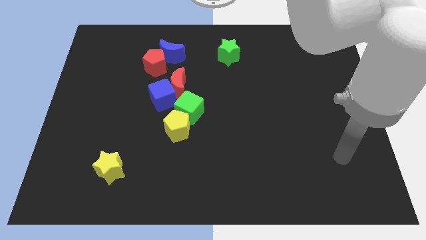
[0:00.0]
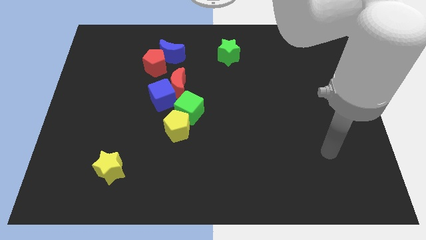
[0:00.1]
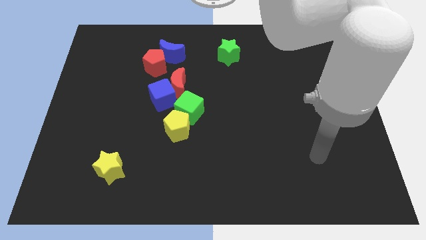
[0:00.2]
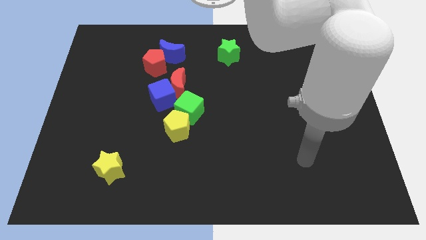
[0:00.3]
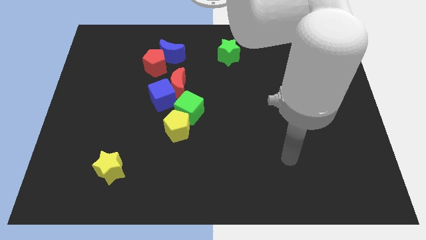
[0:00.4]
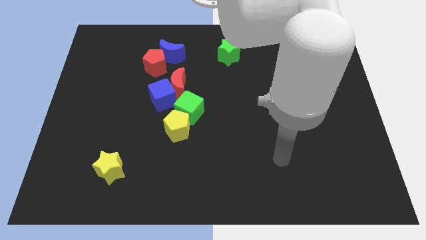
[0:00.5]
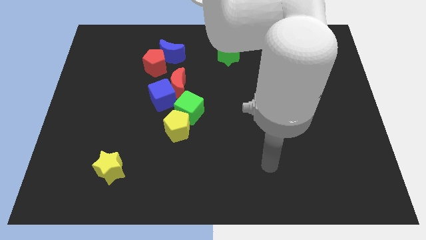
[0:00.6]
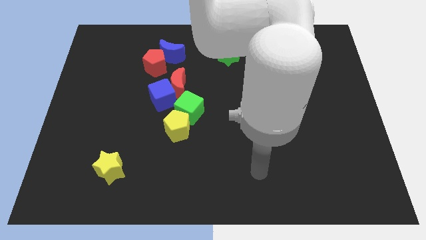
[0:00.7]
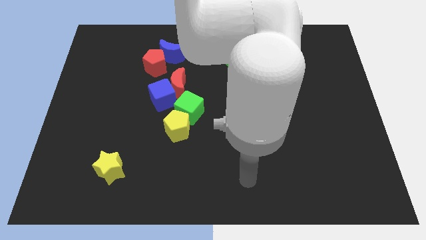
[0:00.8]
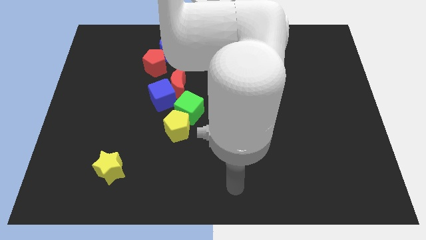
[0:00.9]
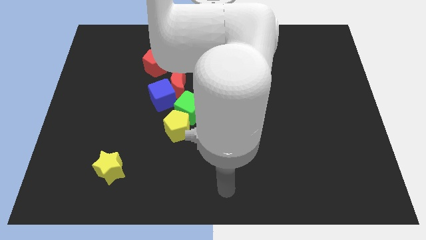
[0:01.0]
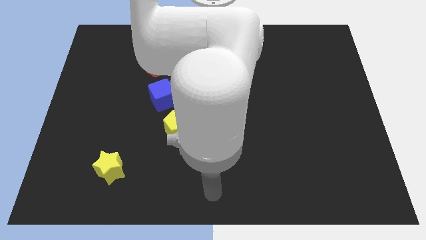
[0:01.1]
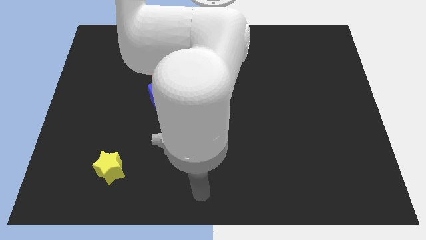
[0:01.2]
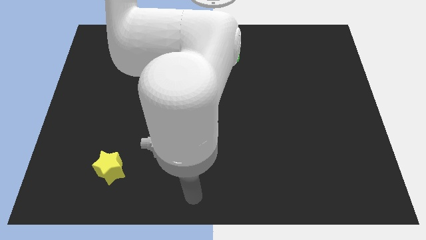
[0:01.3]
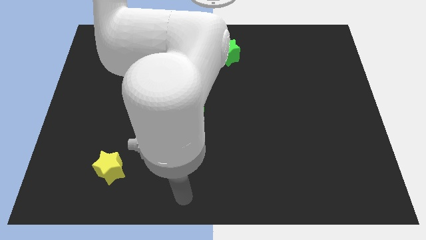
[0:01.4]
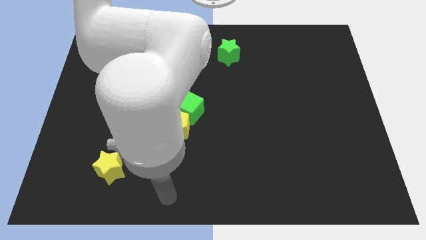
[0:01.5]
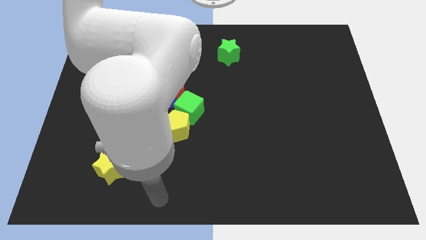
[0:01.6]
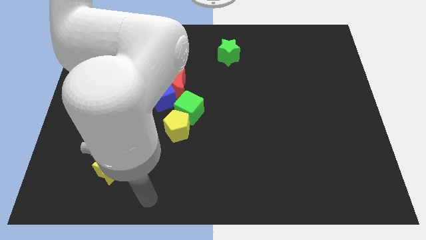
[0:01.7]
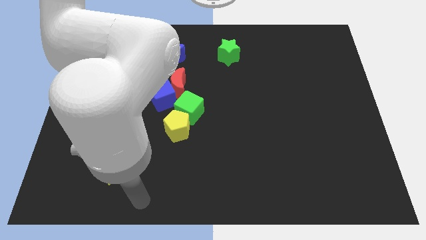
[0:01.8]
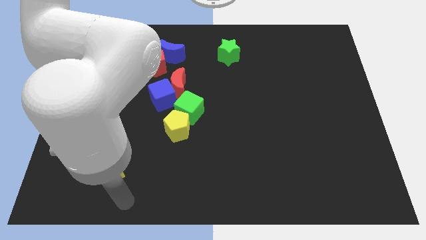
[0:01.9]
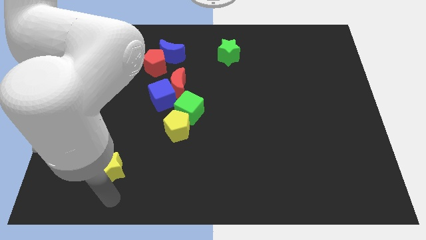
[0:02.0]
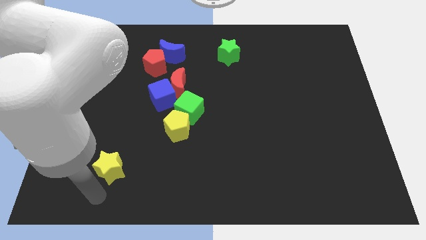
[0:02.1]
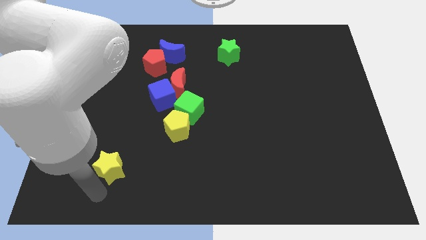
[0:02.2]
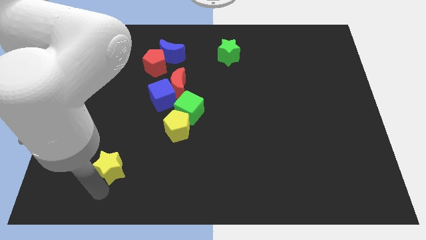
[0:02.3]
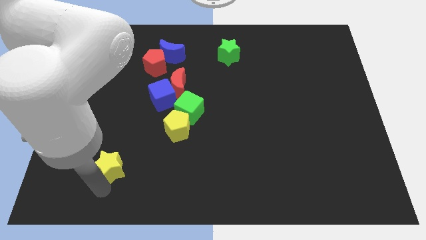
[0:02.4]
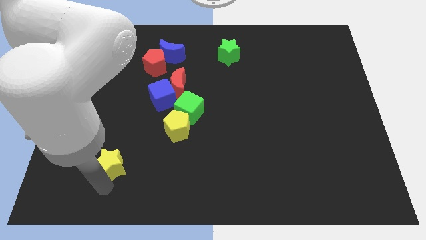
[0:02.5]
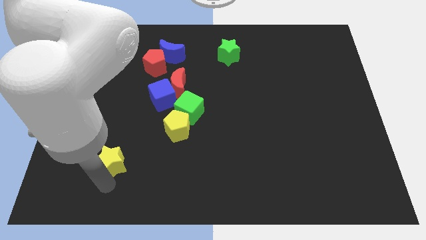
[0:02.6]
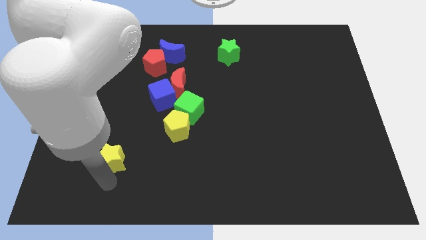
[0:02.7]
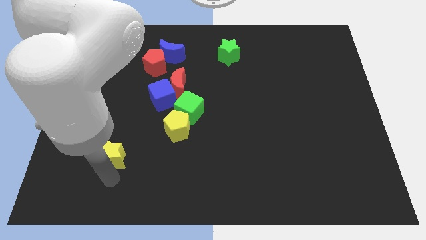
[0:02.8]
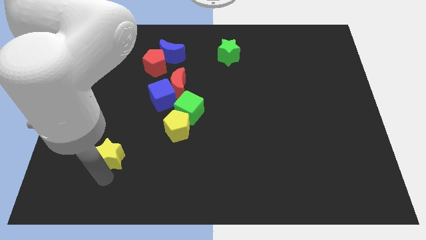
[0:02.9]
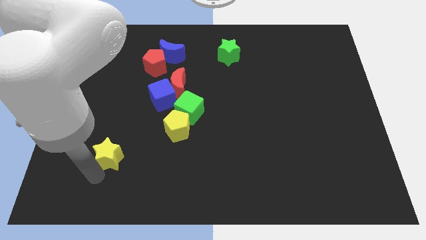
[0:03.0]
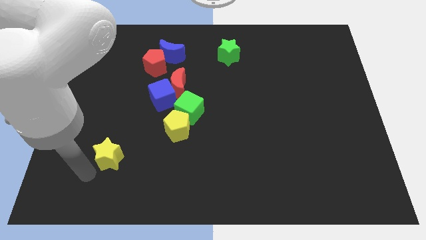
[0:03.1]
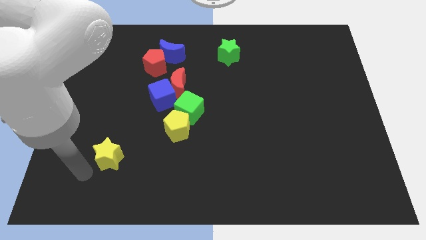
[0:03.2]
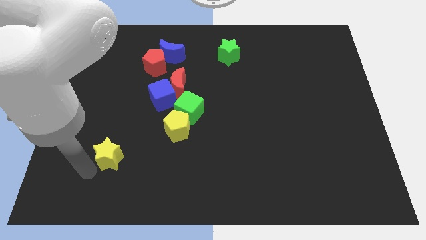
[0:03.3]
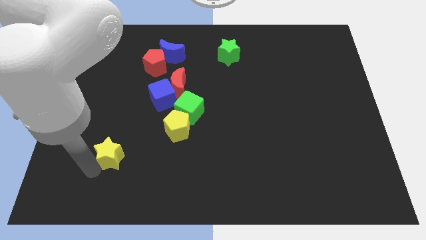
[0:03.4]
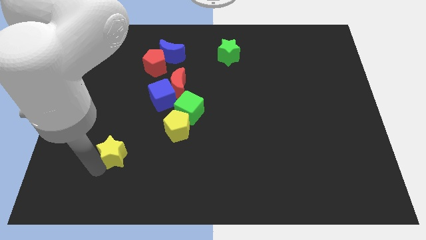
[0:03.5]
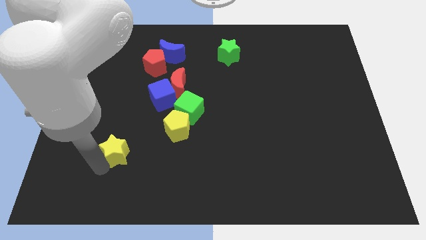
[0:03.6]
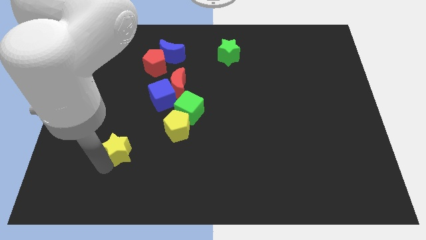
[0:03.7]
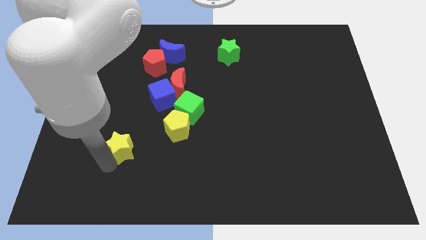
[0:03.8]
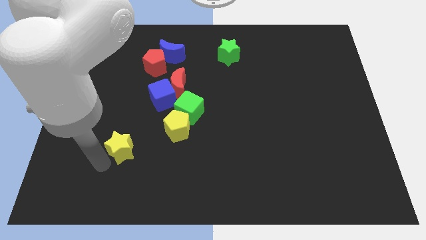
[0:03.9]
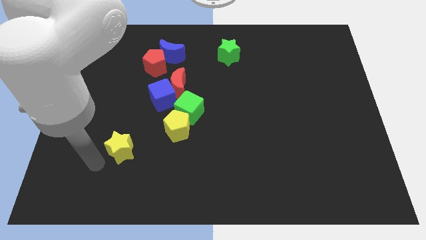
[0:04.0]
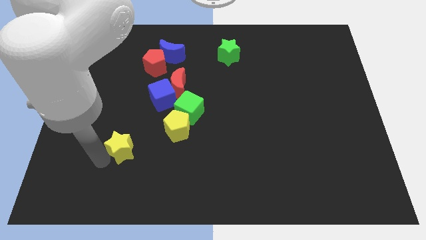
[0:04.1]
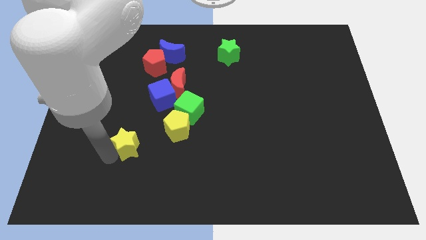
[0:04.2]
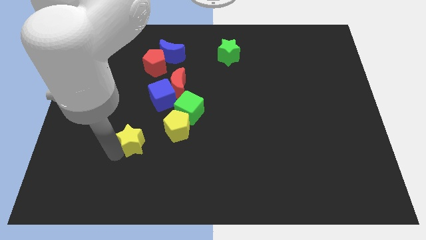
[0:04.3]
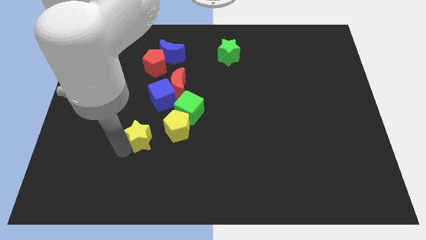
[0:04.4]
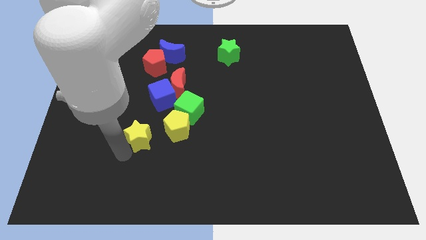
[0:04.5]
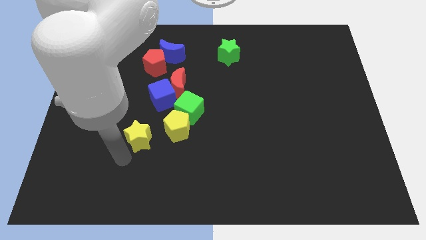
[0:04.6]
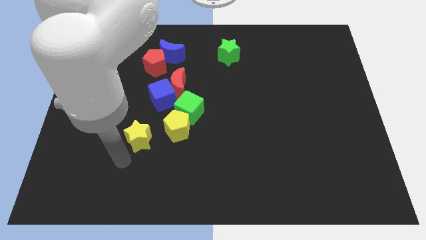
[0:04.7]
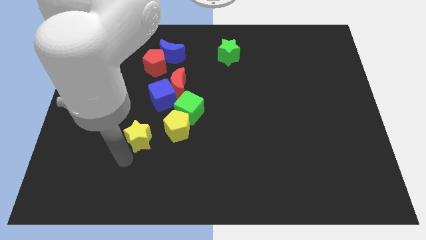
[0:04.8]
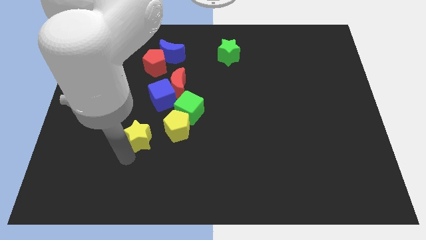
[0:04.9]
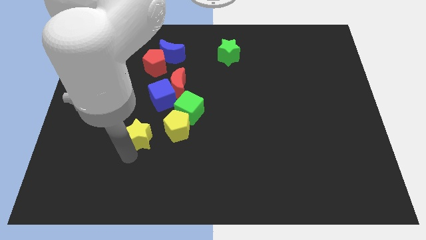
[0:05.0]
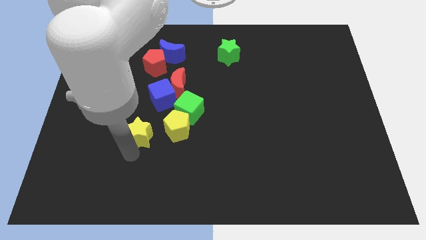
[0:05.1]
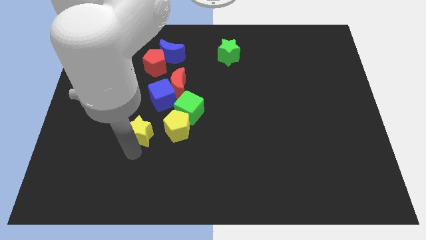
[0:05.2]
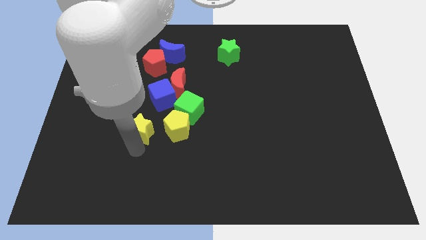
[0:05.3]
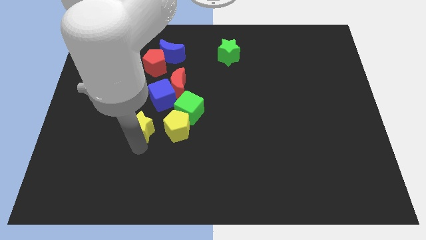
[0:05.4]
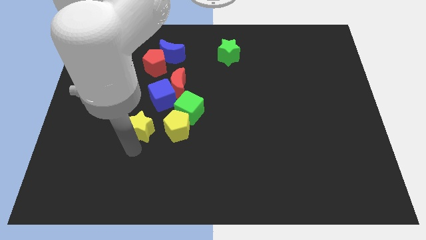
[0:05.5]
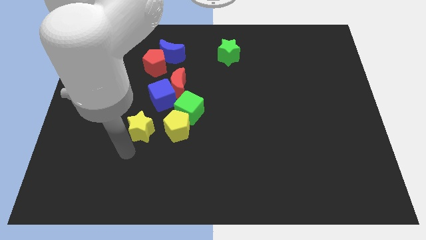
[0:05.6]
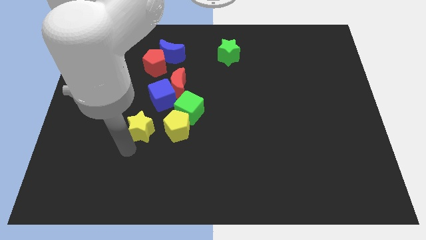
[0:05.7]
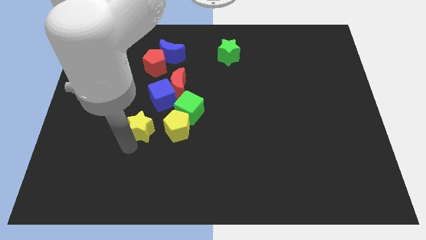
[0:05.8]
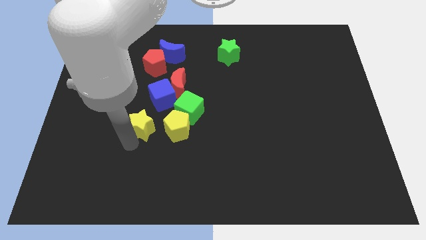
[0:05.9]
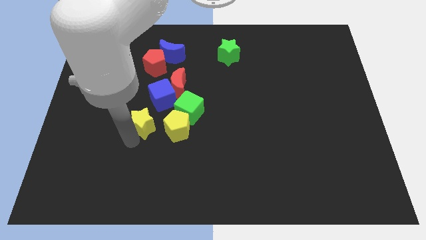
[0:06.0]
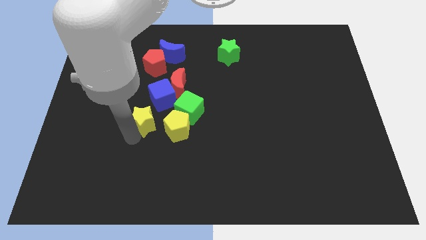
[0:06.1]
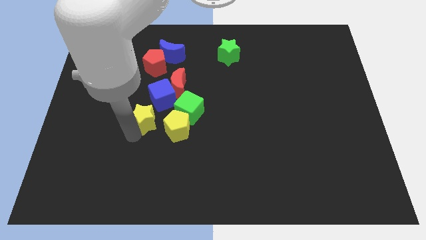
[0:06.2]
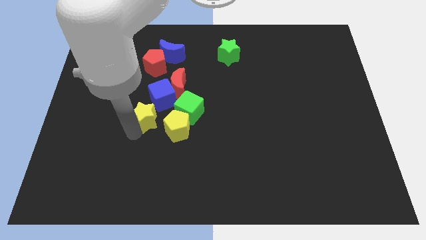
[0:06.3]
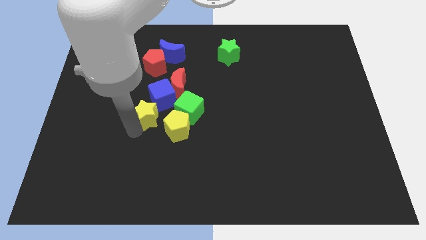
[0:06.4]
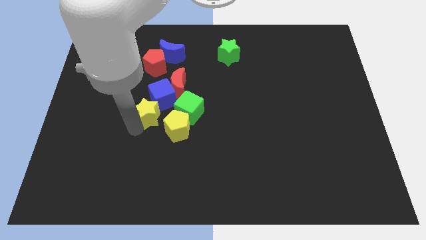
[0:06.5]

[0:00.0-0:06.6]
move the yellow star towards the blue cube

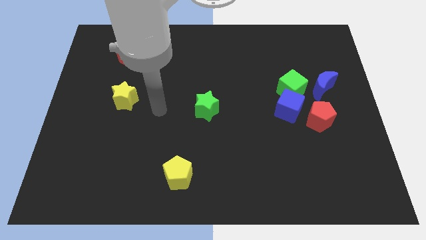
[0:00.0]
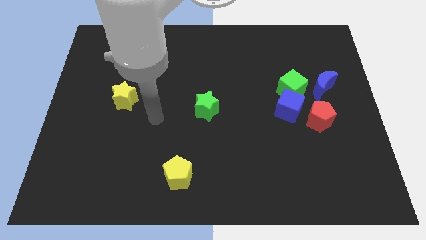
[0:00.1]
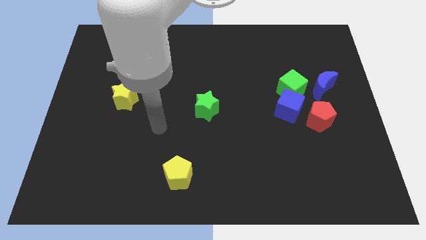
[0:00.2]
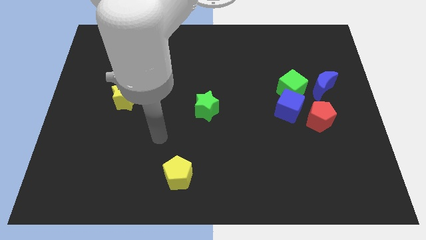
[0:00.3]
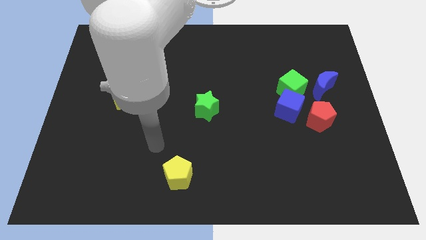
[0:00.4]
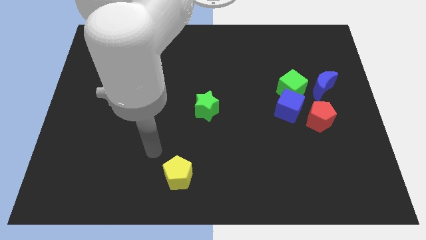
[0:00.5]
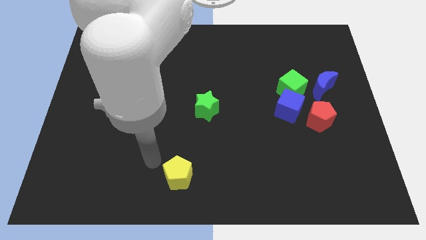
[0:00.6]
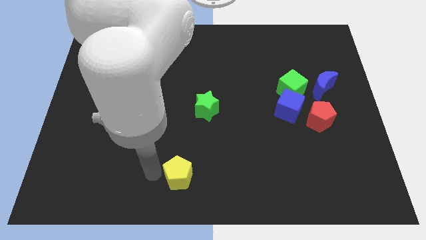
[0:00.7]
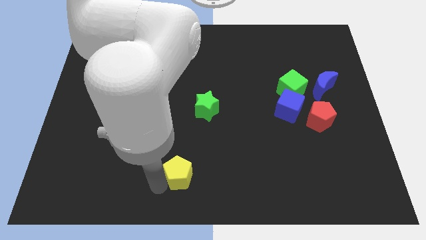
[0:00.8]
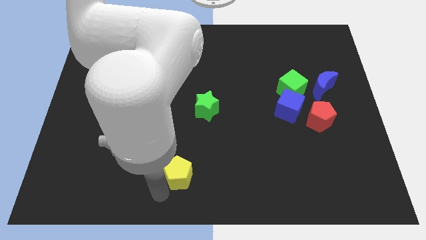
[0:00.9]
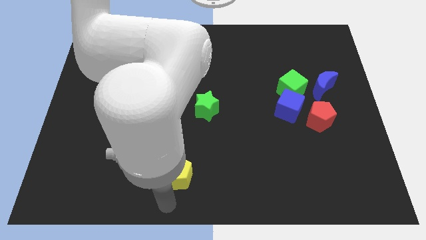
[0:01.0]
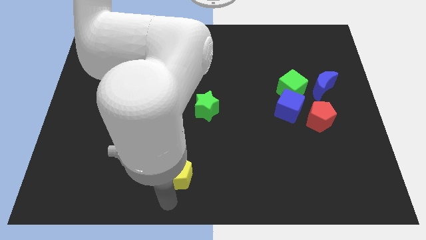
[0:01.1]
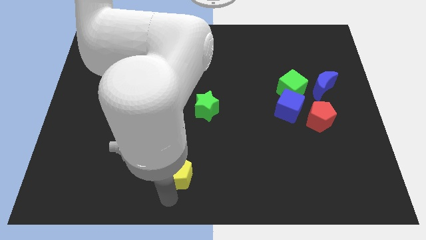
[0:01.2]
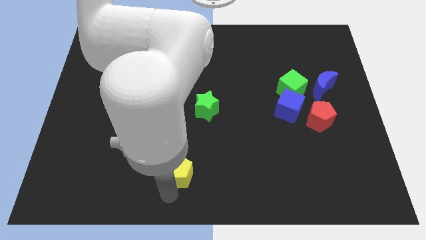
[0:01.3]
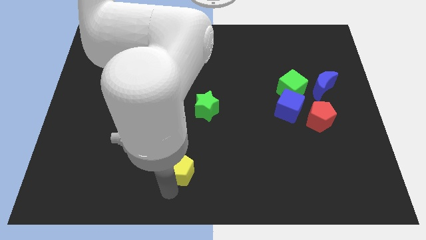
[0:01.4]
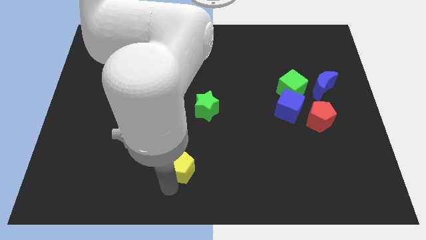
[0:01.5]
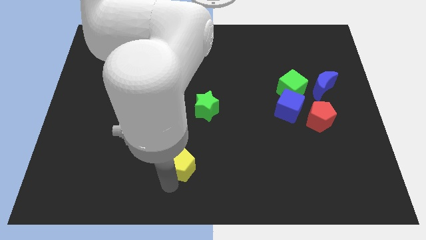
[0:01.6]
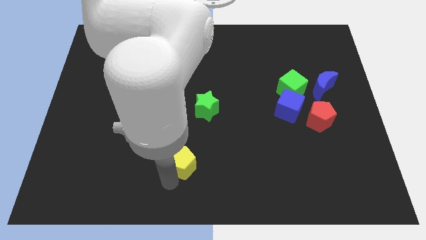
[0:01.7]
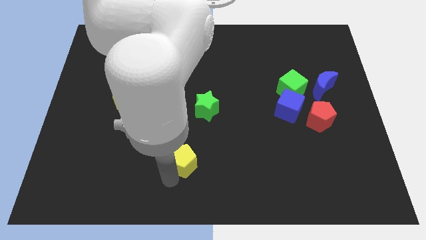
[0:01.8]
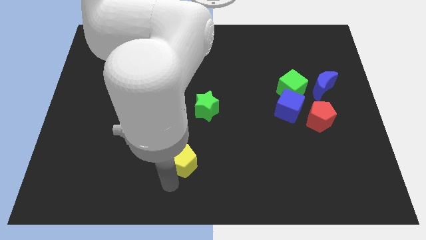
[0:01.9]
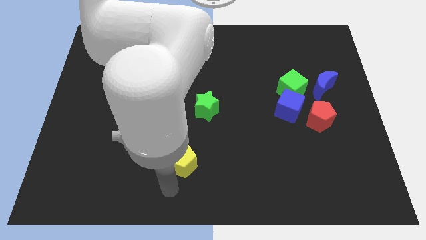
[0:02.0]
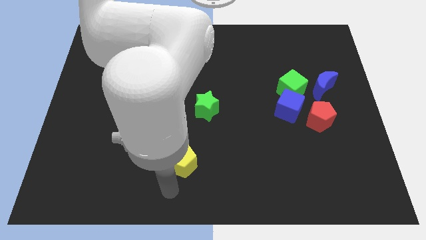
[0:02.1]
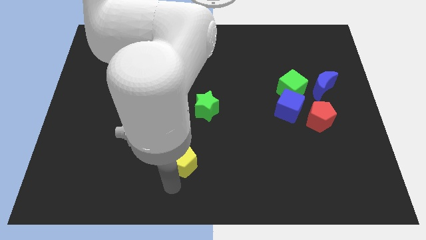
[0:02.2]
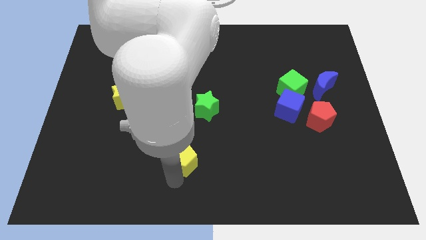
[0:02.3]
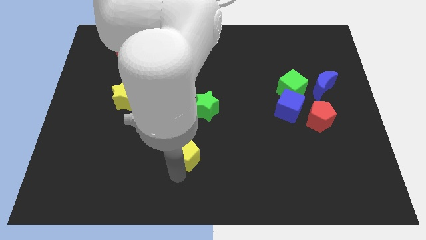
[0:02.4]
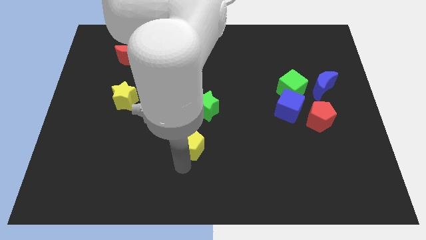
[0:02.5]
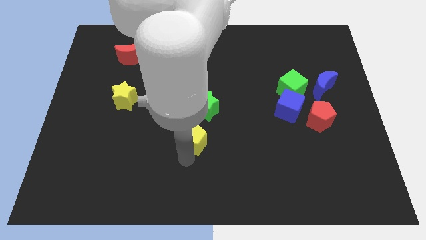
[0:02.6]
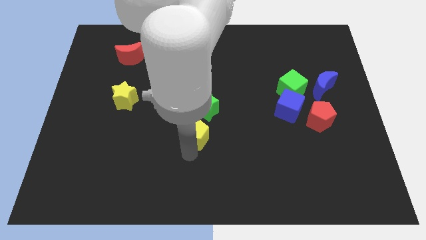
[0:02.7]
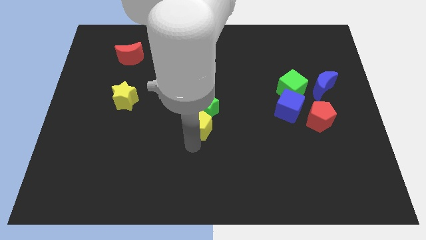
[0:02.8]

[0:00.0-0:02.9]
push the yellow pentagon to the green star
